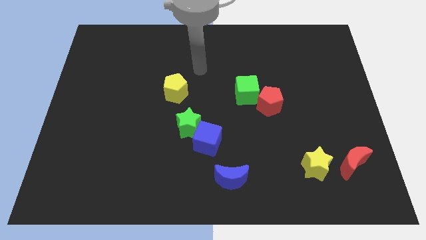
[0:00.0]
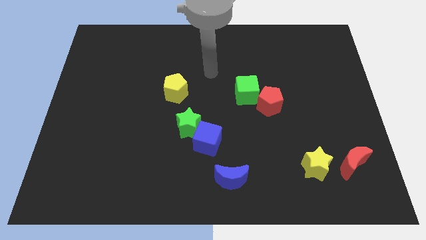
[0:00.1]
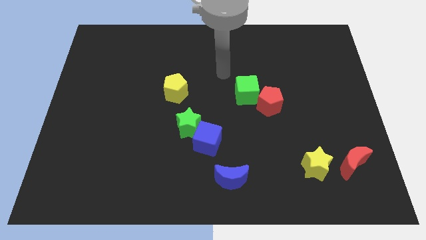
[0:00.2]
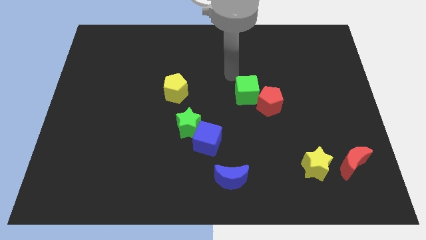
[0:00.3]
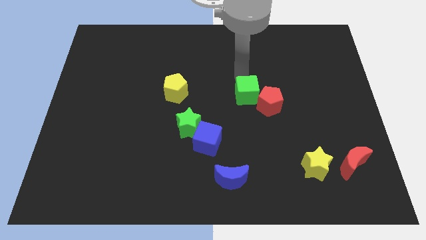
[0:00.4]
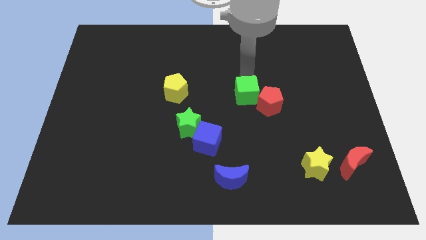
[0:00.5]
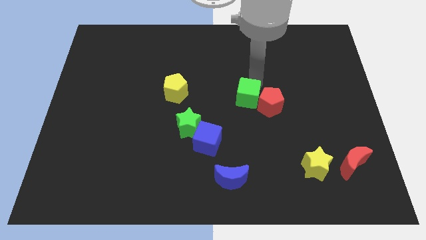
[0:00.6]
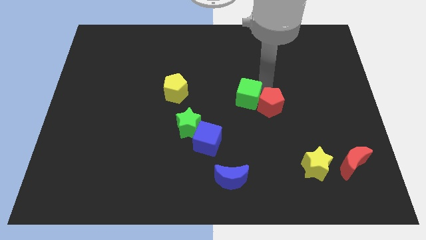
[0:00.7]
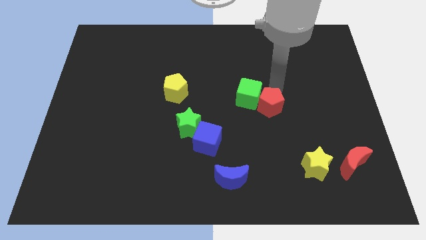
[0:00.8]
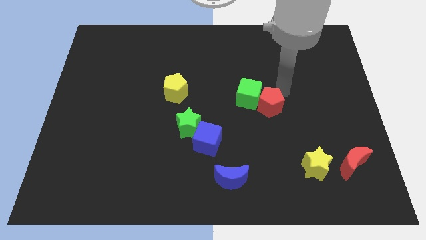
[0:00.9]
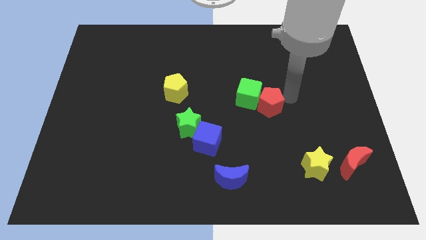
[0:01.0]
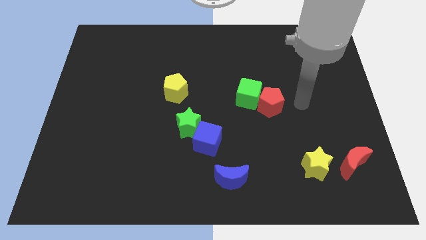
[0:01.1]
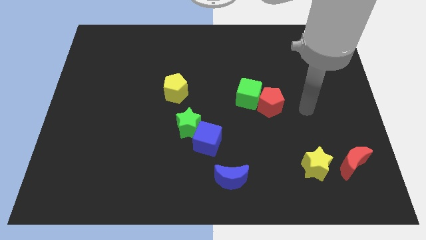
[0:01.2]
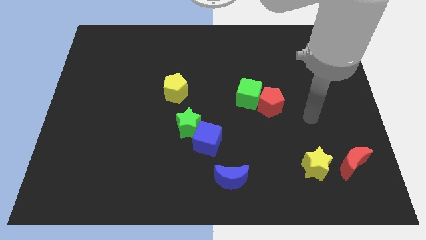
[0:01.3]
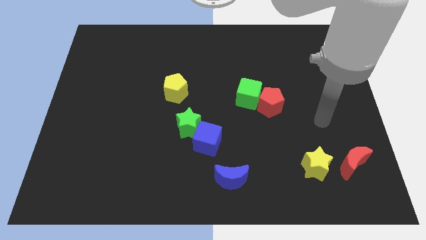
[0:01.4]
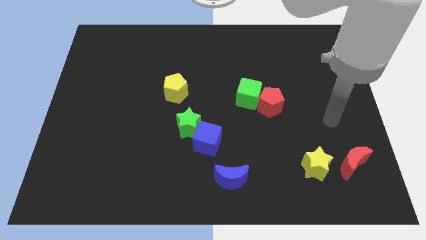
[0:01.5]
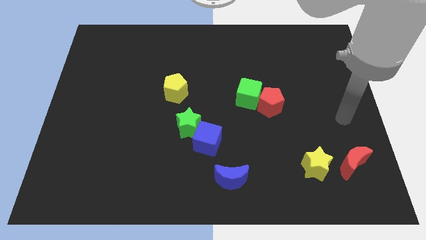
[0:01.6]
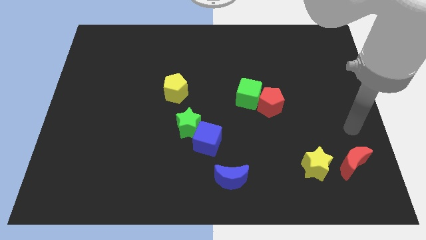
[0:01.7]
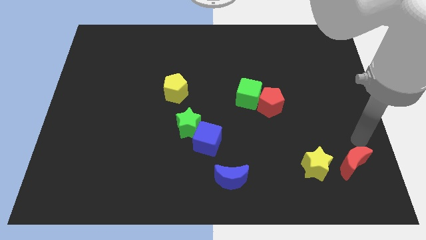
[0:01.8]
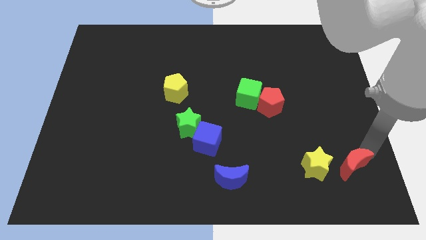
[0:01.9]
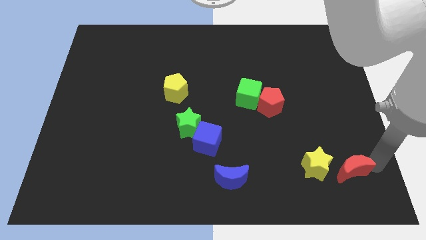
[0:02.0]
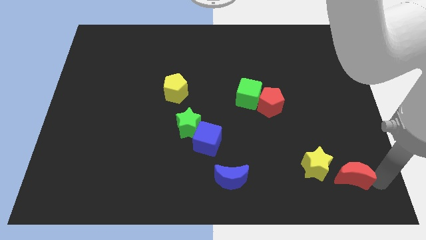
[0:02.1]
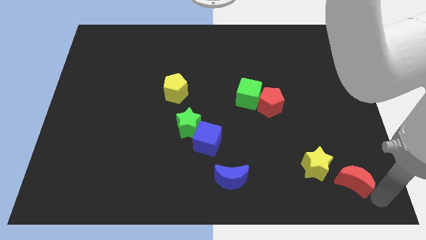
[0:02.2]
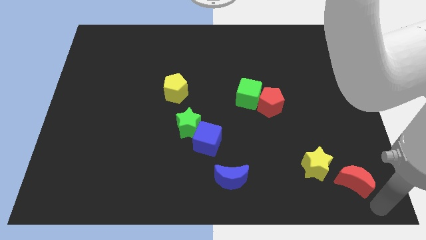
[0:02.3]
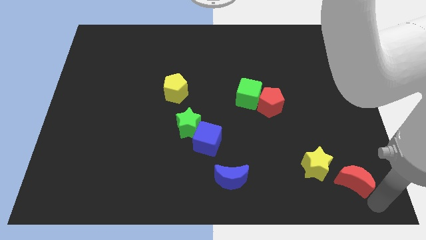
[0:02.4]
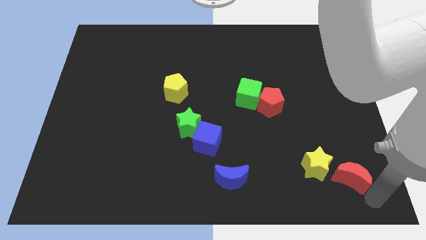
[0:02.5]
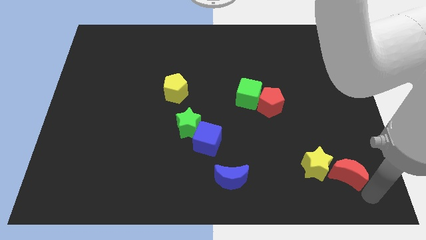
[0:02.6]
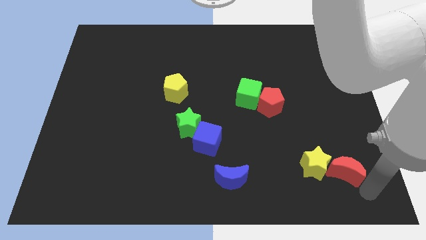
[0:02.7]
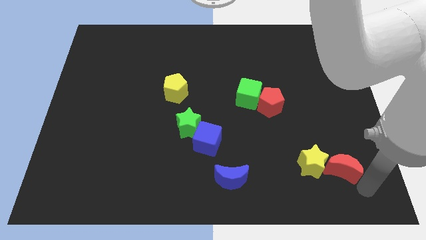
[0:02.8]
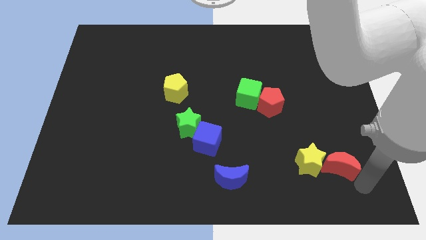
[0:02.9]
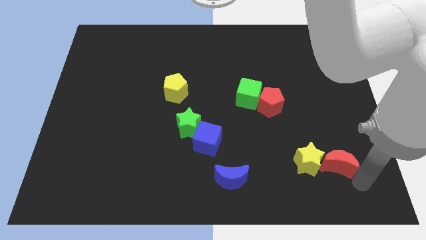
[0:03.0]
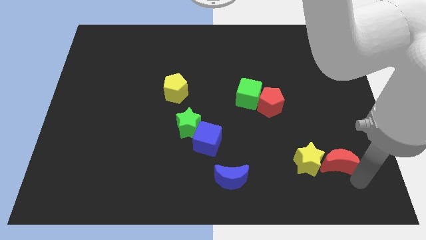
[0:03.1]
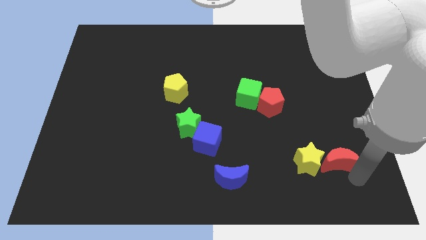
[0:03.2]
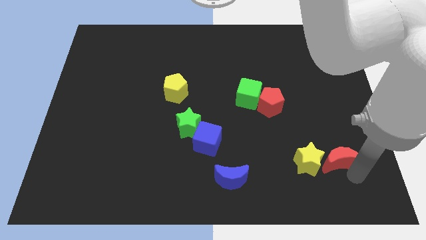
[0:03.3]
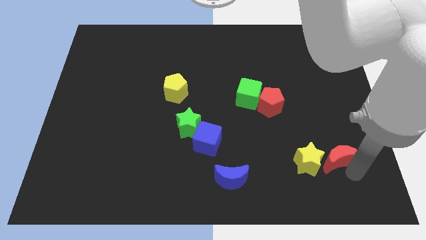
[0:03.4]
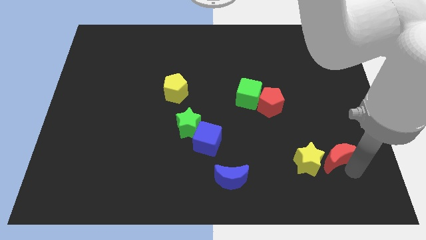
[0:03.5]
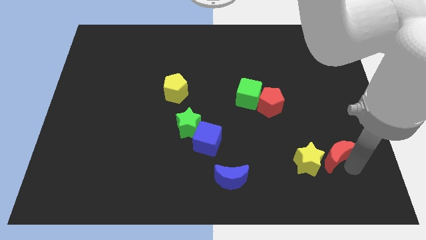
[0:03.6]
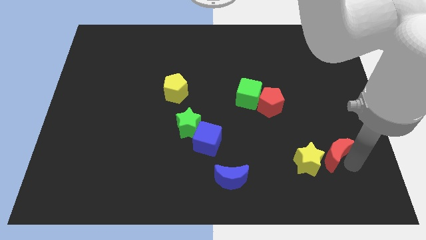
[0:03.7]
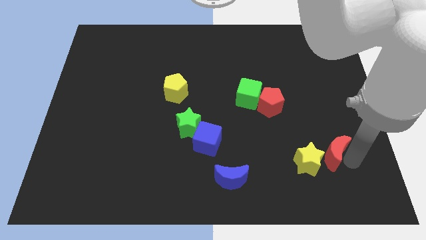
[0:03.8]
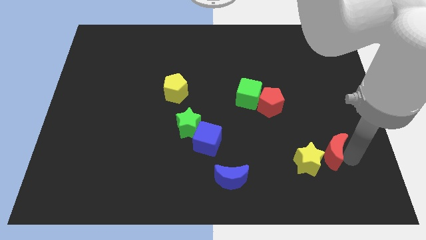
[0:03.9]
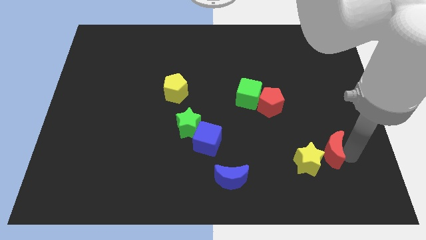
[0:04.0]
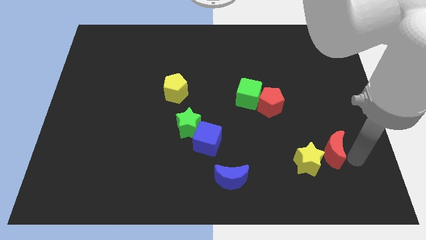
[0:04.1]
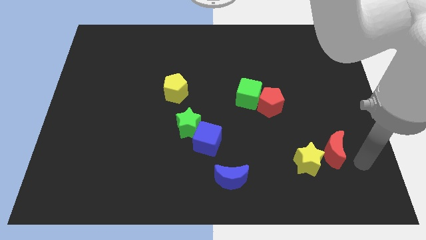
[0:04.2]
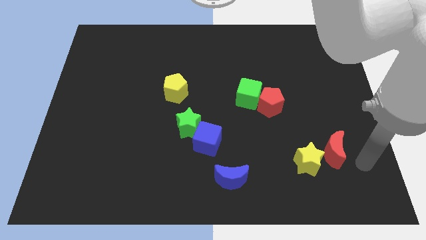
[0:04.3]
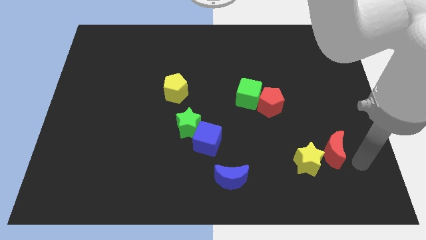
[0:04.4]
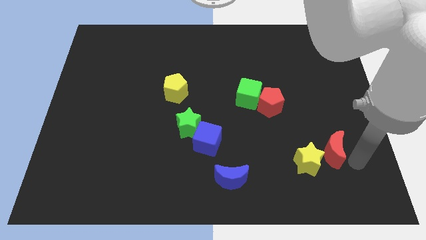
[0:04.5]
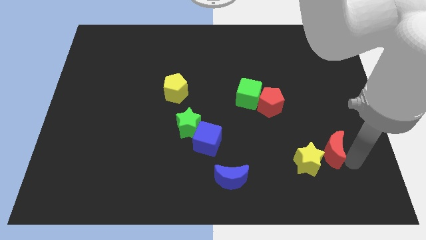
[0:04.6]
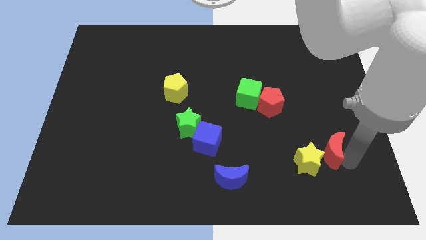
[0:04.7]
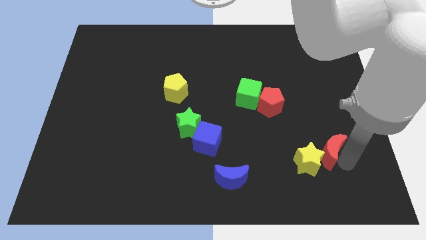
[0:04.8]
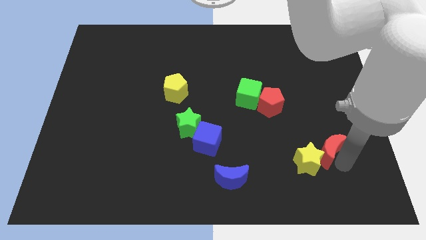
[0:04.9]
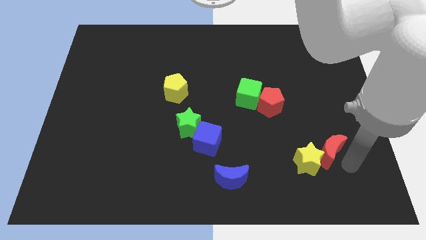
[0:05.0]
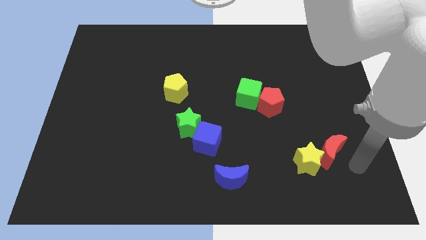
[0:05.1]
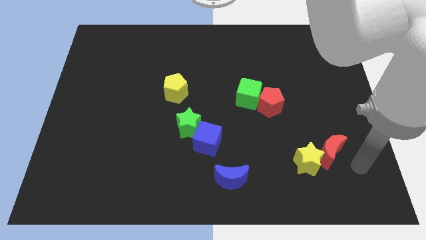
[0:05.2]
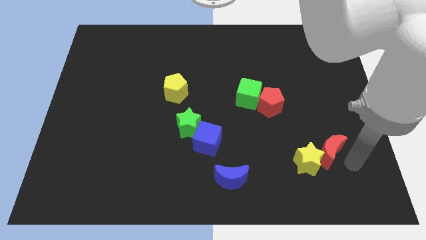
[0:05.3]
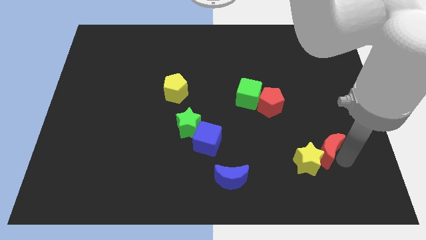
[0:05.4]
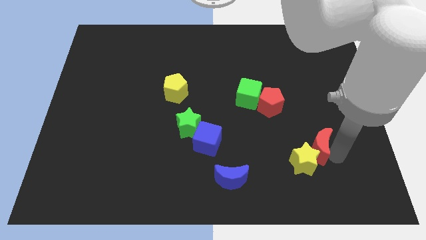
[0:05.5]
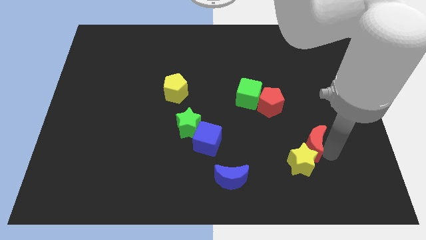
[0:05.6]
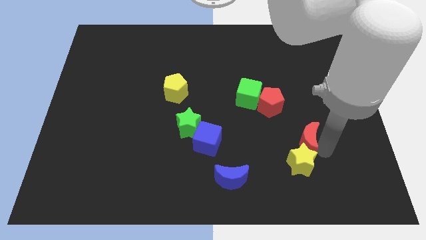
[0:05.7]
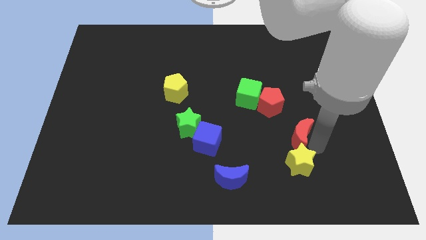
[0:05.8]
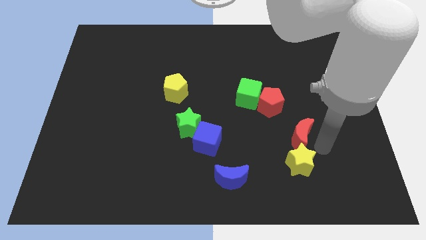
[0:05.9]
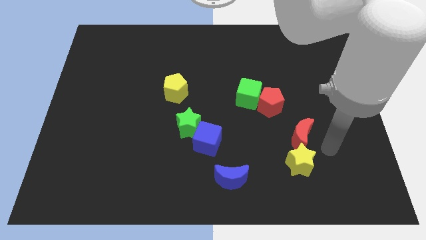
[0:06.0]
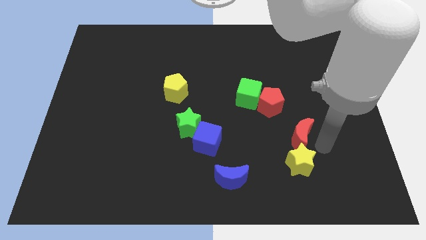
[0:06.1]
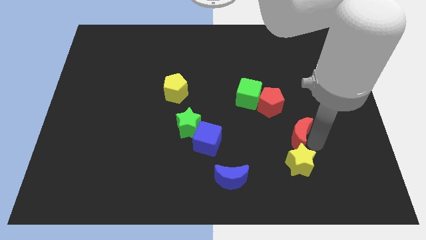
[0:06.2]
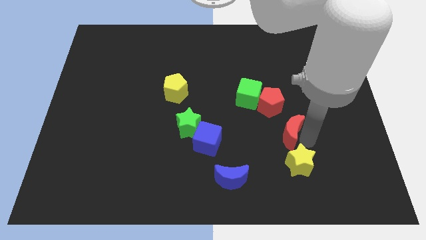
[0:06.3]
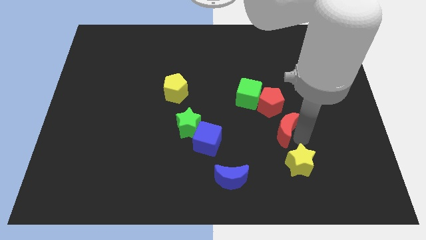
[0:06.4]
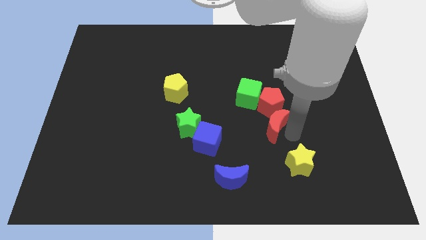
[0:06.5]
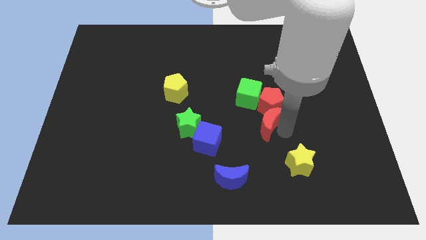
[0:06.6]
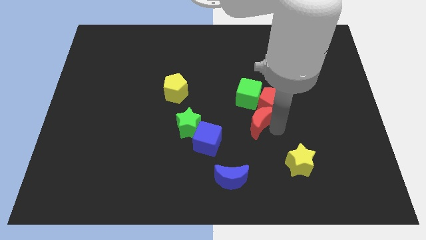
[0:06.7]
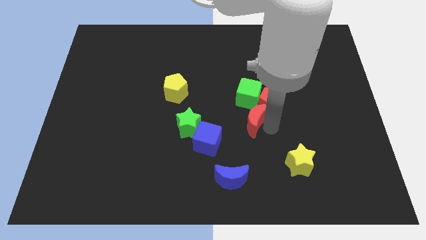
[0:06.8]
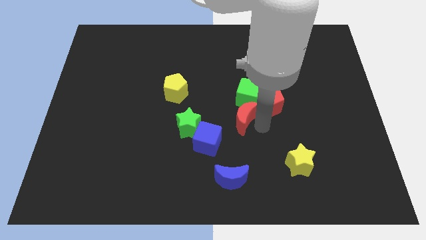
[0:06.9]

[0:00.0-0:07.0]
move the red moon left of the red pentagon
